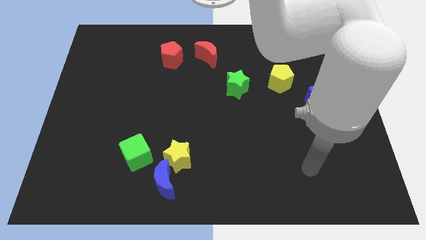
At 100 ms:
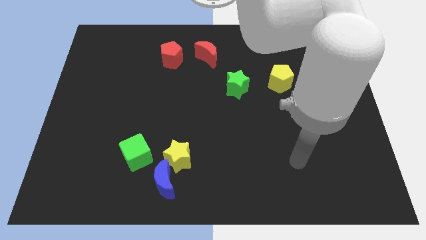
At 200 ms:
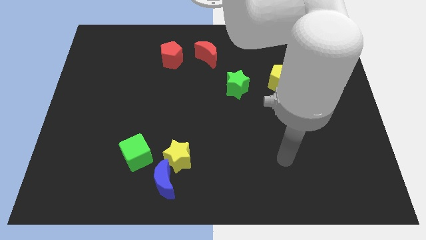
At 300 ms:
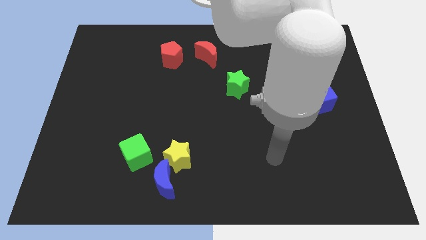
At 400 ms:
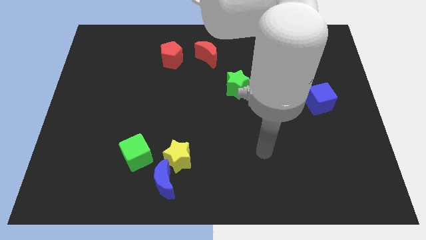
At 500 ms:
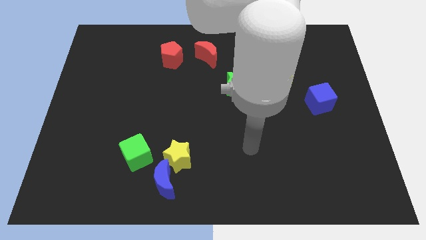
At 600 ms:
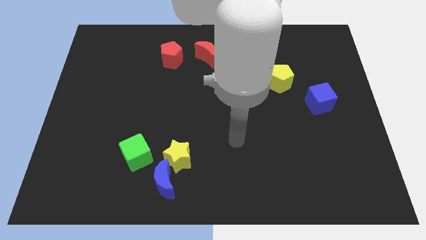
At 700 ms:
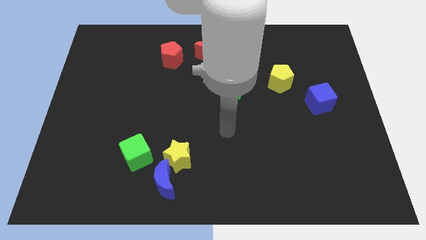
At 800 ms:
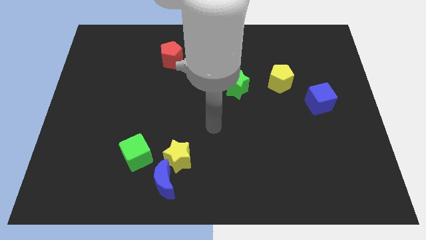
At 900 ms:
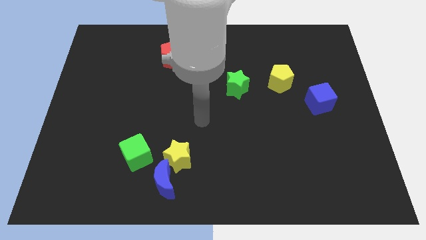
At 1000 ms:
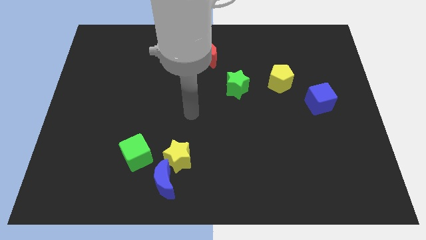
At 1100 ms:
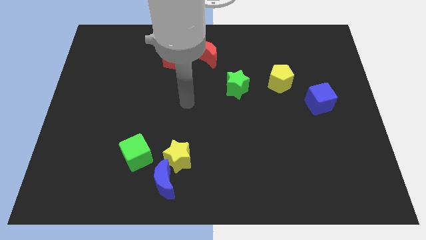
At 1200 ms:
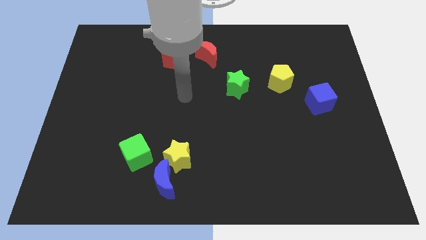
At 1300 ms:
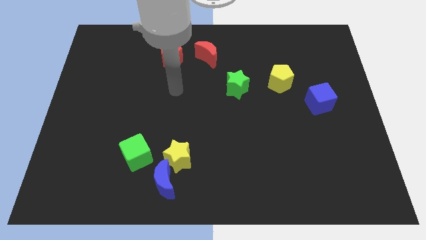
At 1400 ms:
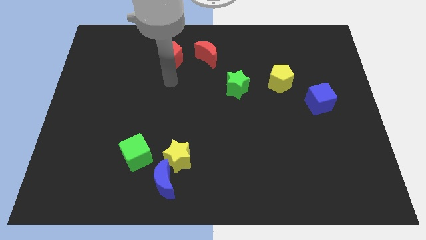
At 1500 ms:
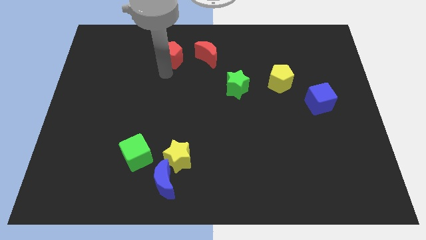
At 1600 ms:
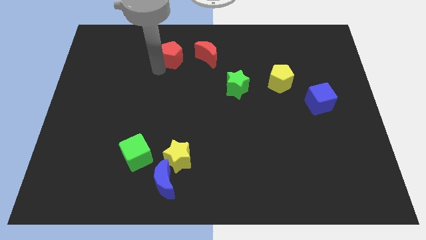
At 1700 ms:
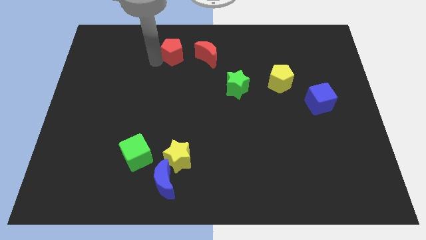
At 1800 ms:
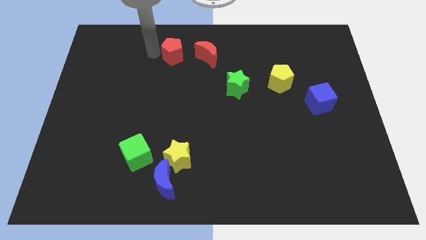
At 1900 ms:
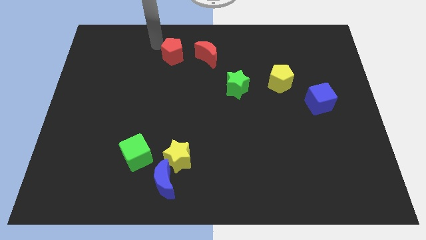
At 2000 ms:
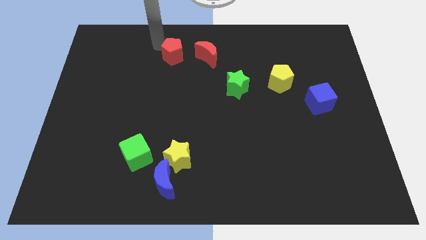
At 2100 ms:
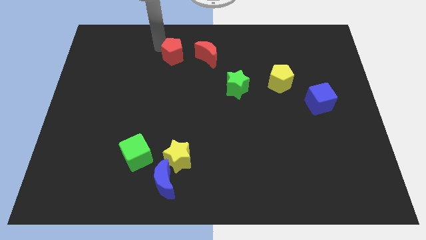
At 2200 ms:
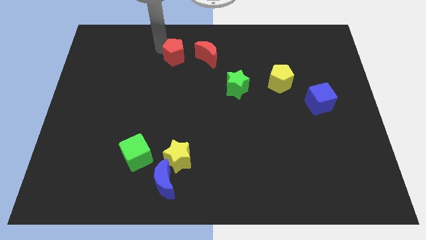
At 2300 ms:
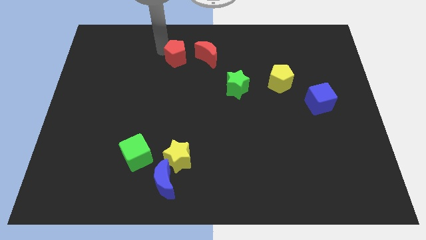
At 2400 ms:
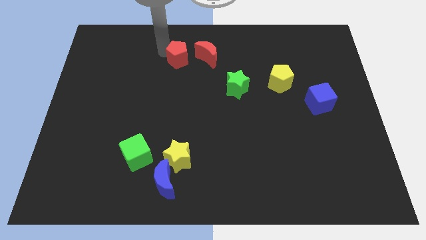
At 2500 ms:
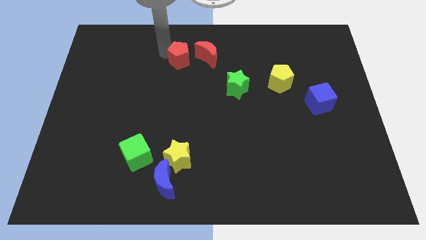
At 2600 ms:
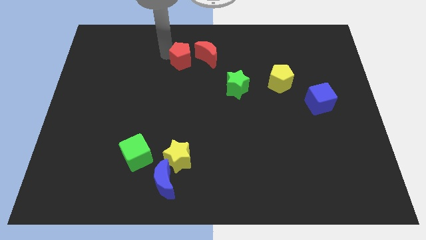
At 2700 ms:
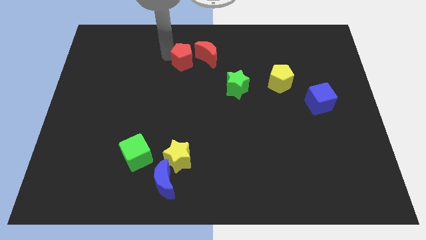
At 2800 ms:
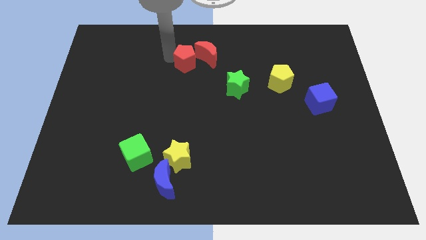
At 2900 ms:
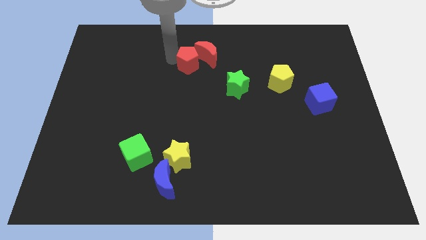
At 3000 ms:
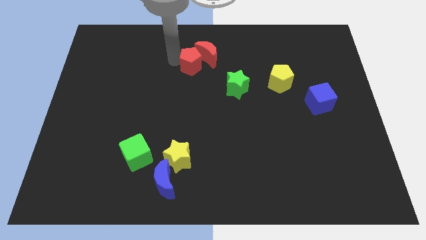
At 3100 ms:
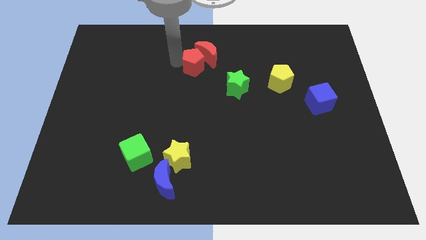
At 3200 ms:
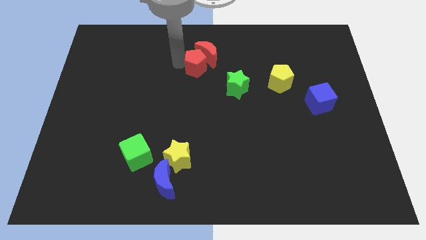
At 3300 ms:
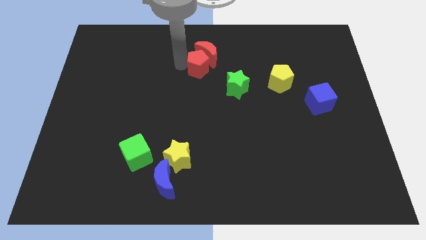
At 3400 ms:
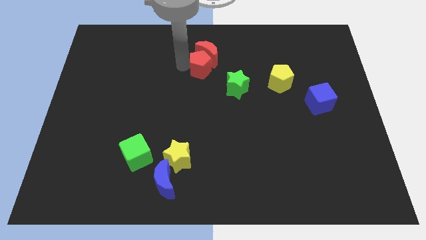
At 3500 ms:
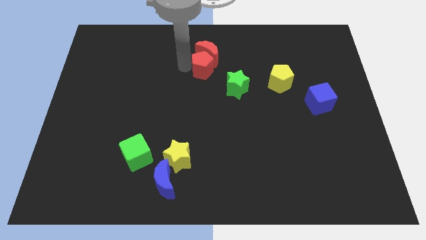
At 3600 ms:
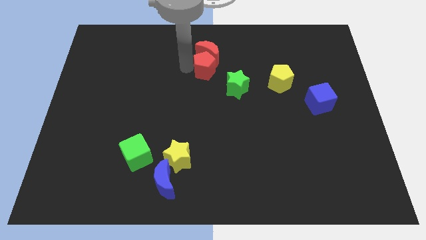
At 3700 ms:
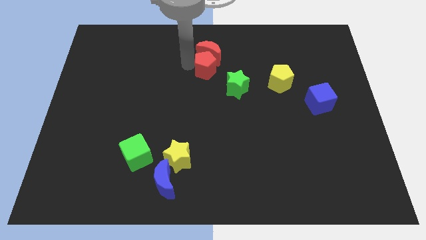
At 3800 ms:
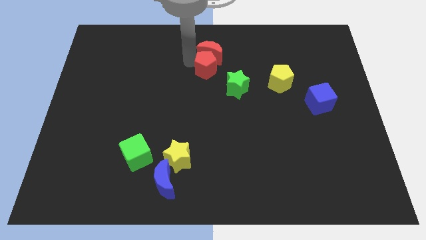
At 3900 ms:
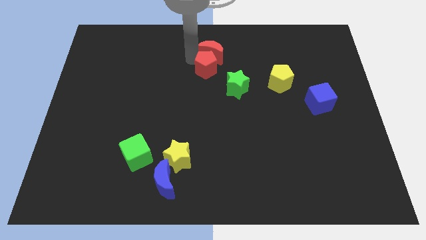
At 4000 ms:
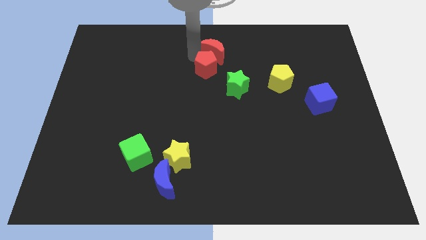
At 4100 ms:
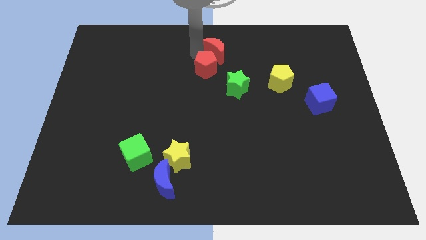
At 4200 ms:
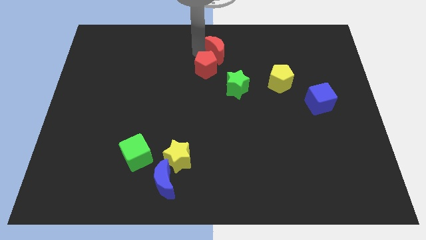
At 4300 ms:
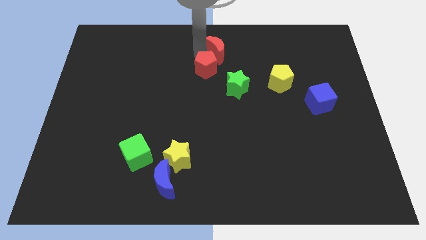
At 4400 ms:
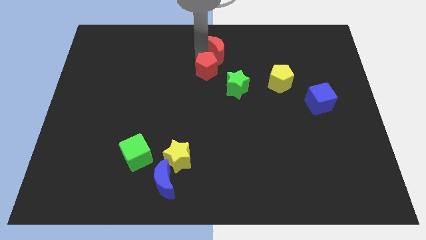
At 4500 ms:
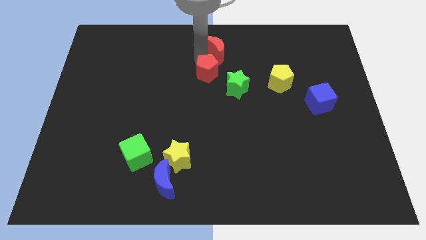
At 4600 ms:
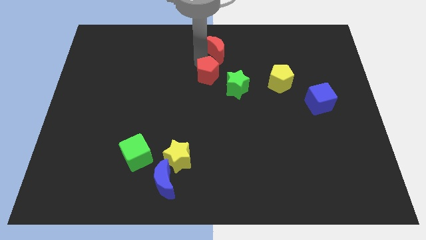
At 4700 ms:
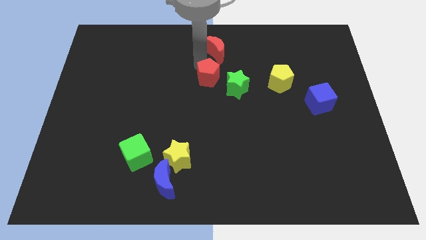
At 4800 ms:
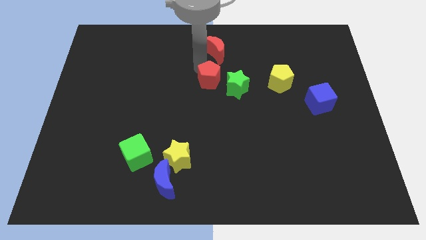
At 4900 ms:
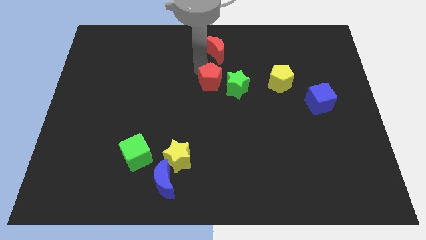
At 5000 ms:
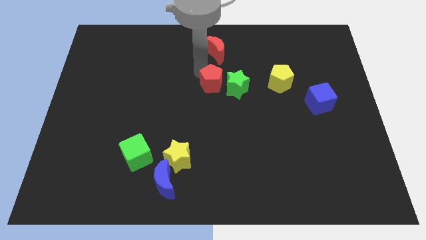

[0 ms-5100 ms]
push the red pentagon close to the green star

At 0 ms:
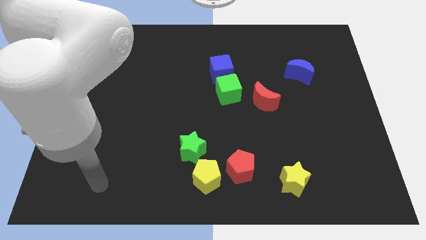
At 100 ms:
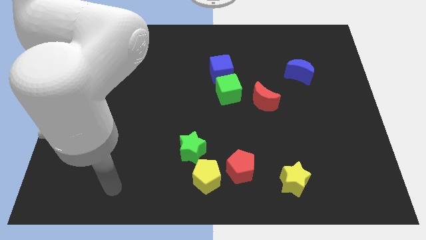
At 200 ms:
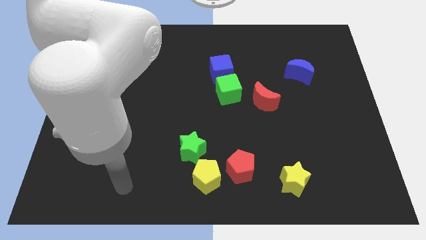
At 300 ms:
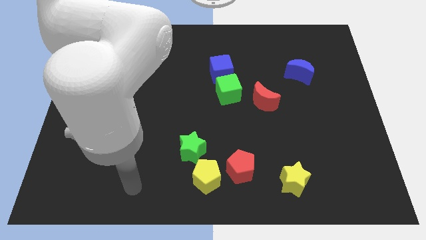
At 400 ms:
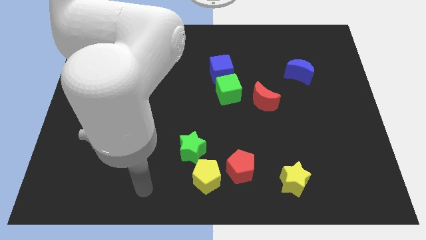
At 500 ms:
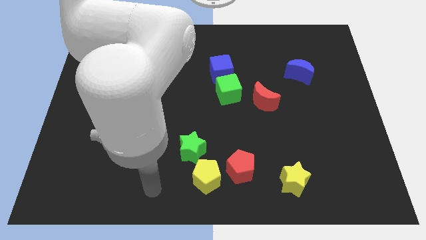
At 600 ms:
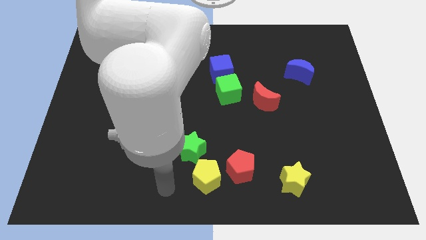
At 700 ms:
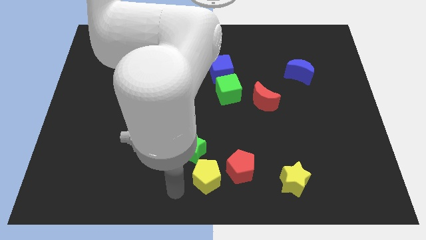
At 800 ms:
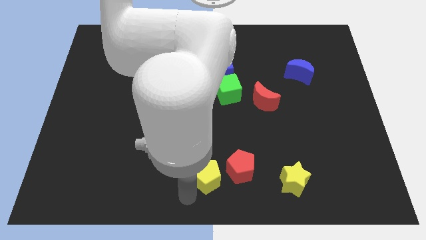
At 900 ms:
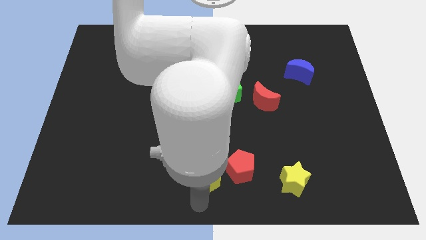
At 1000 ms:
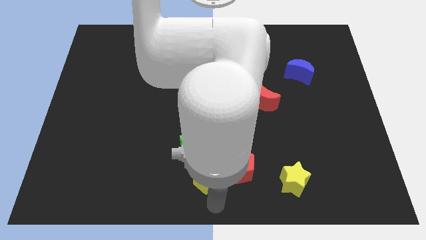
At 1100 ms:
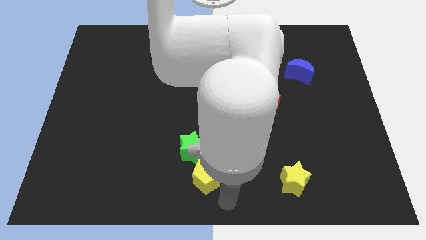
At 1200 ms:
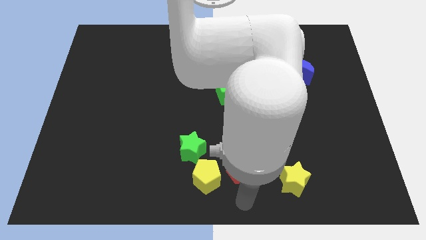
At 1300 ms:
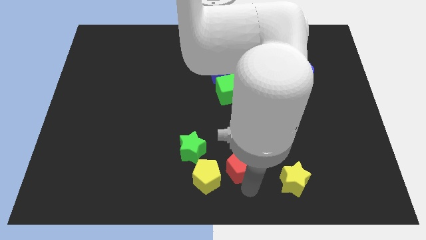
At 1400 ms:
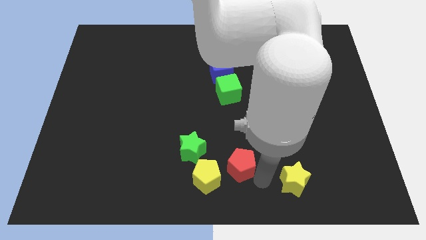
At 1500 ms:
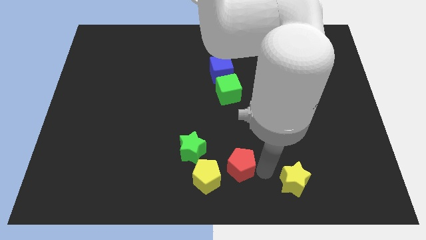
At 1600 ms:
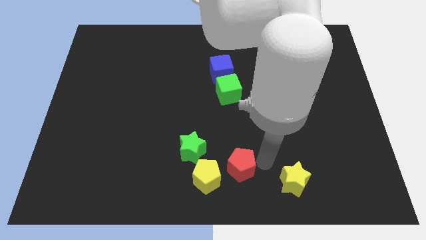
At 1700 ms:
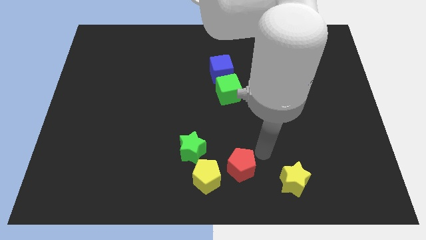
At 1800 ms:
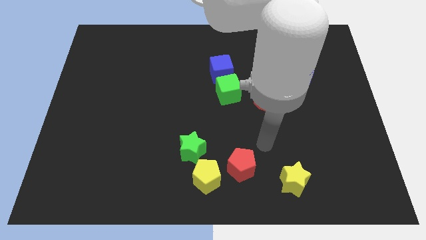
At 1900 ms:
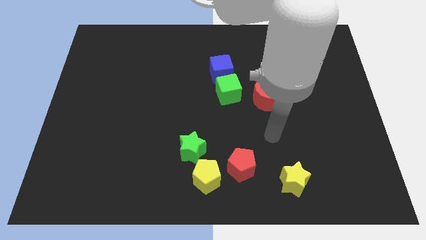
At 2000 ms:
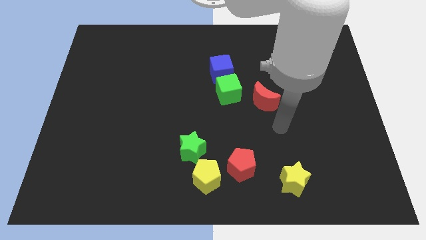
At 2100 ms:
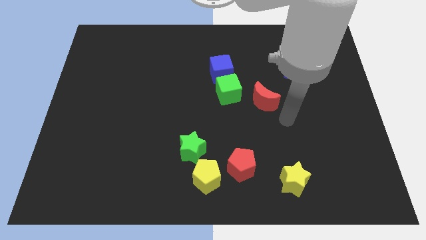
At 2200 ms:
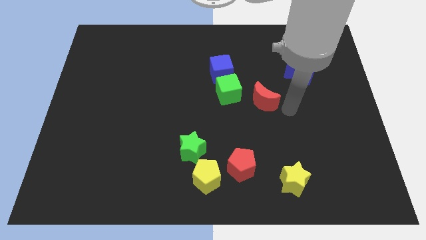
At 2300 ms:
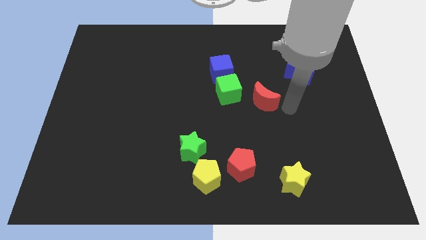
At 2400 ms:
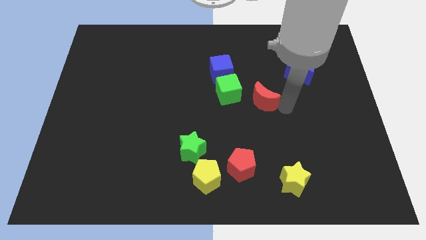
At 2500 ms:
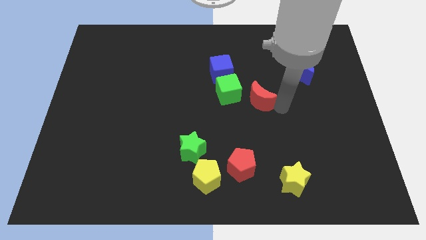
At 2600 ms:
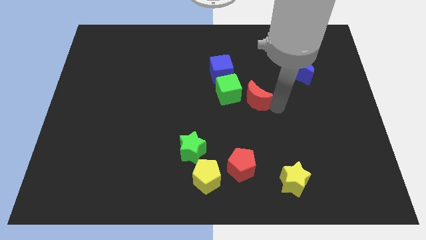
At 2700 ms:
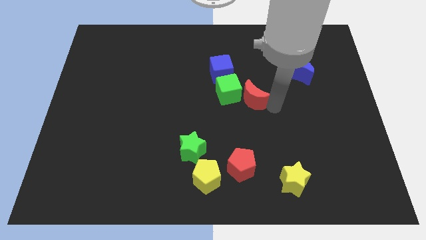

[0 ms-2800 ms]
move the red moon close to the green cube
